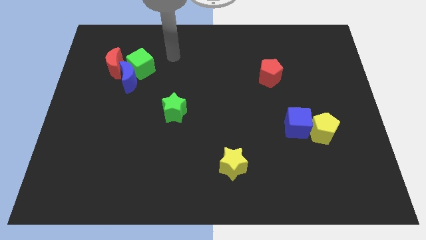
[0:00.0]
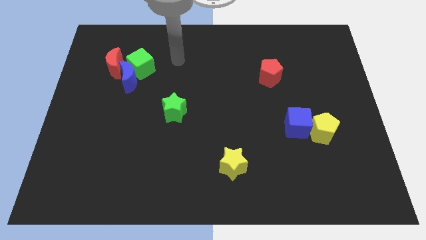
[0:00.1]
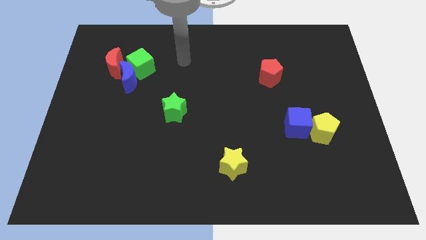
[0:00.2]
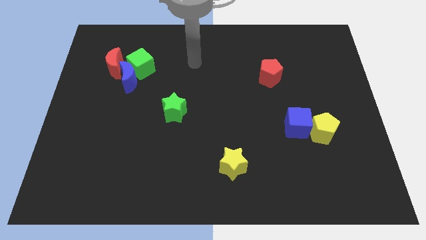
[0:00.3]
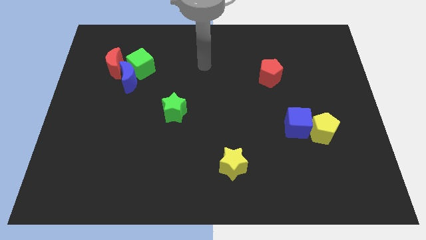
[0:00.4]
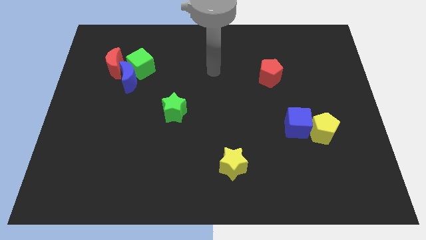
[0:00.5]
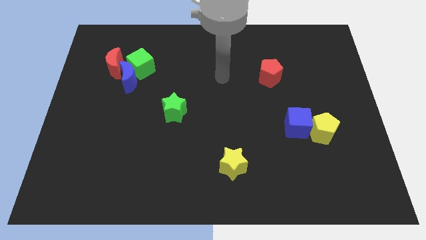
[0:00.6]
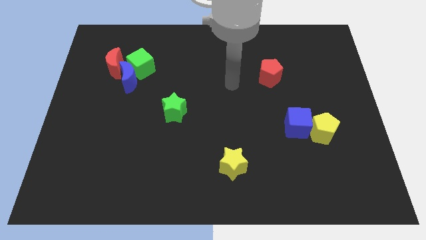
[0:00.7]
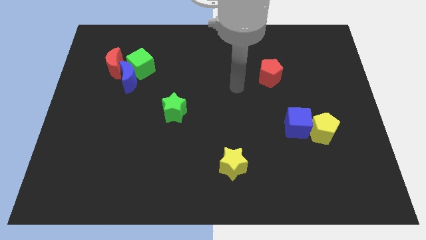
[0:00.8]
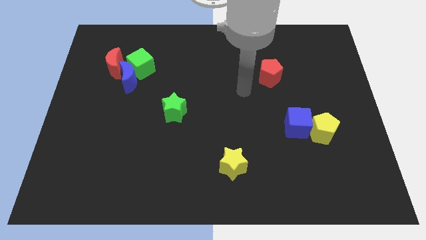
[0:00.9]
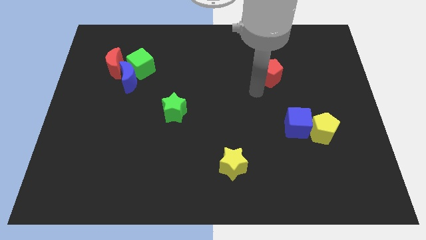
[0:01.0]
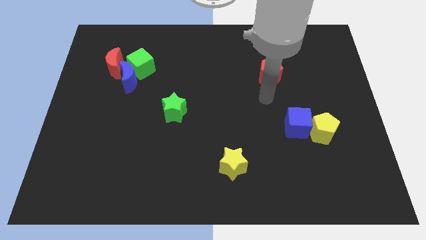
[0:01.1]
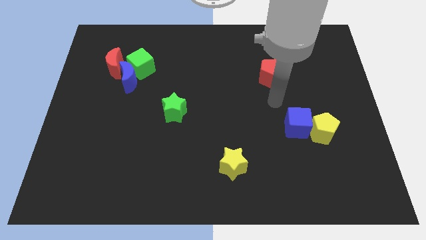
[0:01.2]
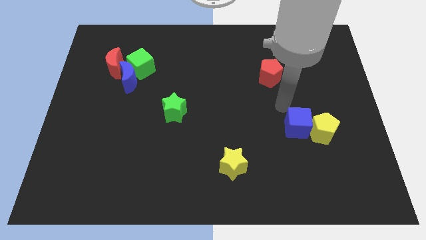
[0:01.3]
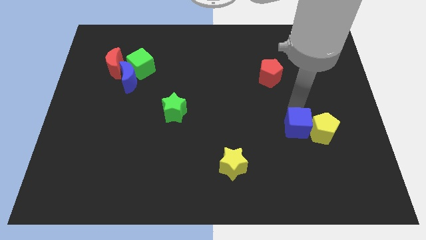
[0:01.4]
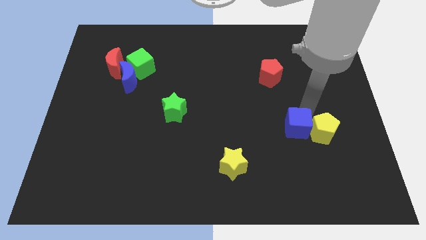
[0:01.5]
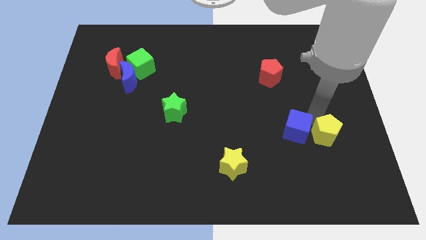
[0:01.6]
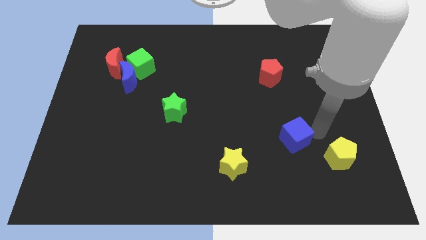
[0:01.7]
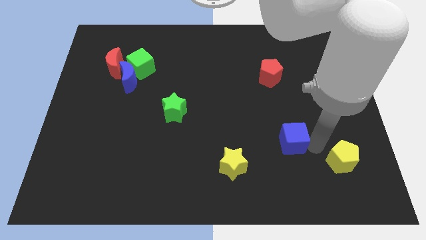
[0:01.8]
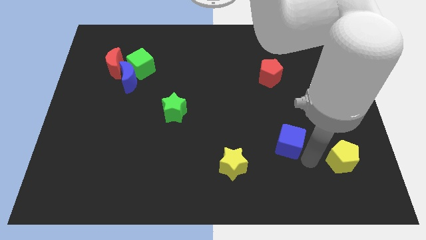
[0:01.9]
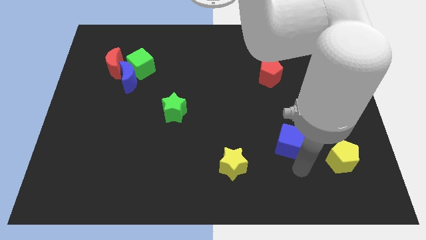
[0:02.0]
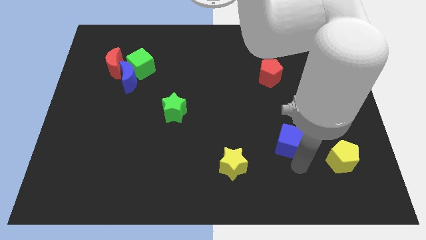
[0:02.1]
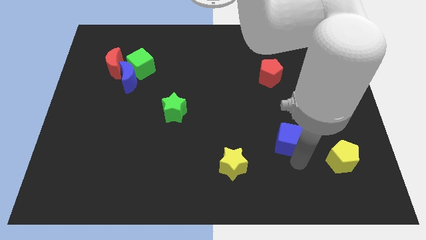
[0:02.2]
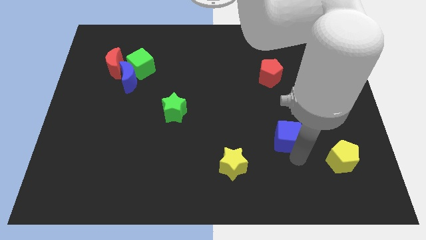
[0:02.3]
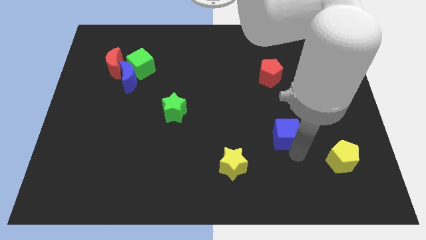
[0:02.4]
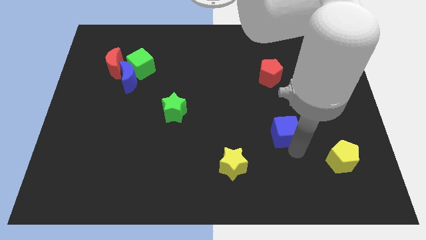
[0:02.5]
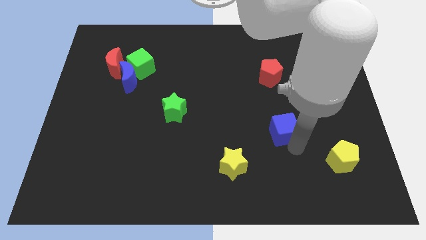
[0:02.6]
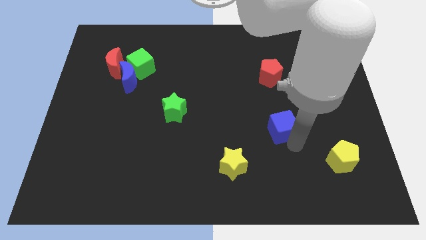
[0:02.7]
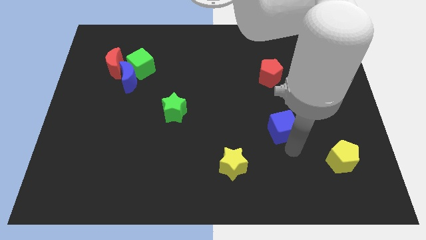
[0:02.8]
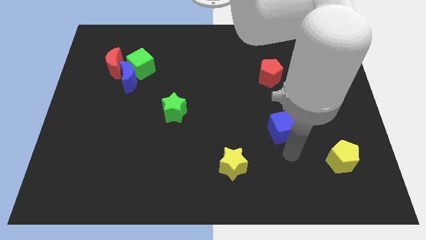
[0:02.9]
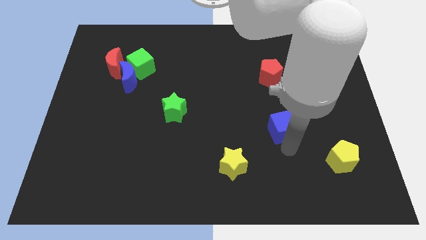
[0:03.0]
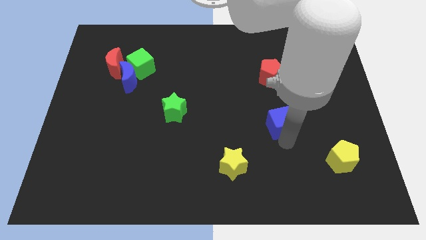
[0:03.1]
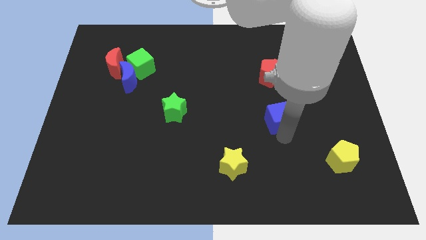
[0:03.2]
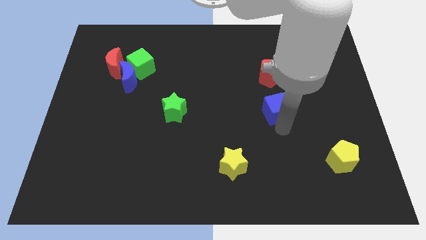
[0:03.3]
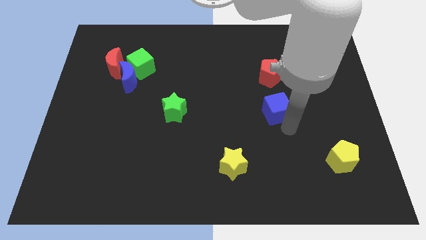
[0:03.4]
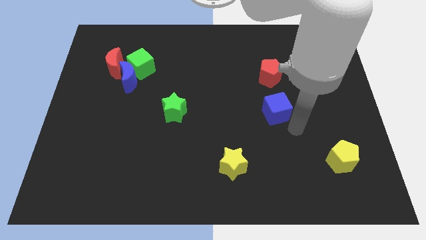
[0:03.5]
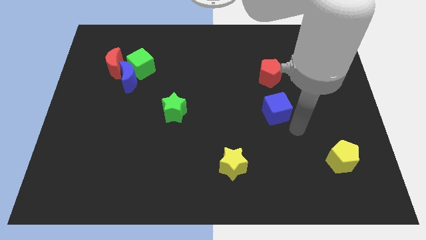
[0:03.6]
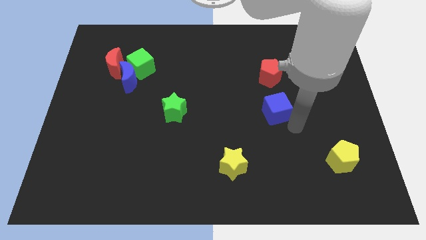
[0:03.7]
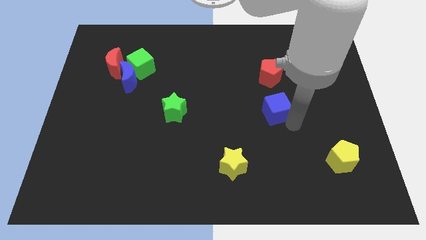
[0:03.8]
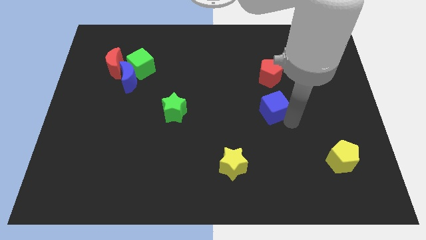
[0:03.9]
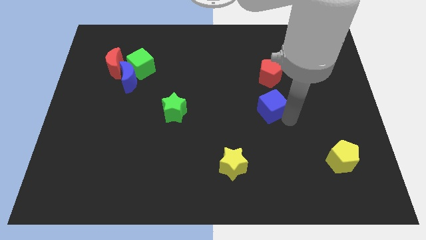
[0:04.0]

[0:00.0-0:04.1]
push the blue cube upwards and left slightly

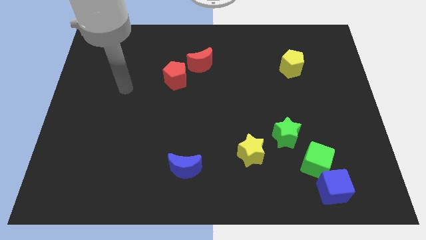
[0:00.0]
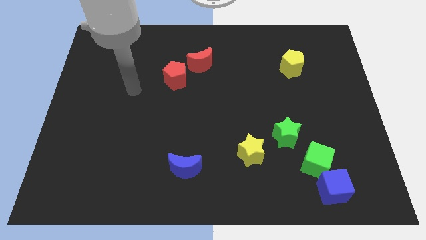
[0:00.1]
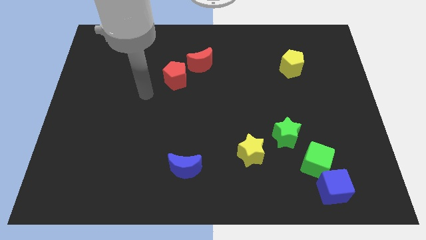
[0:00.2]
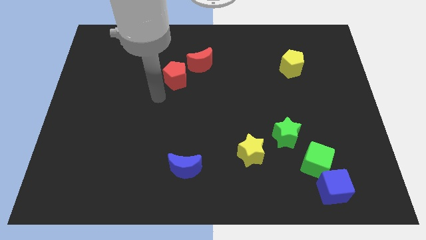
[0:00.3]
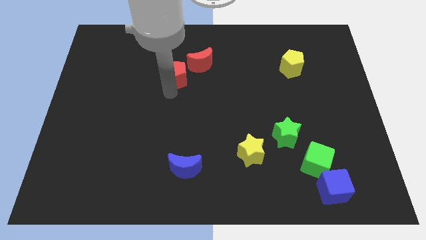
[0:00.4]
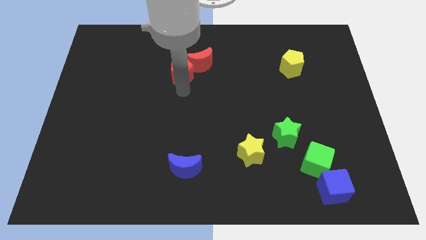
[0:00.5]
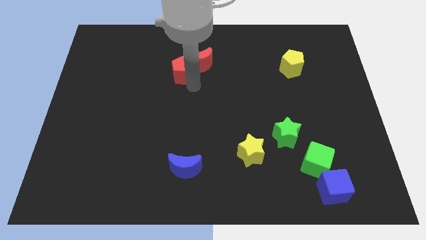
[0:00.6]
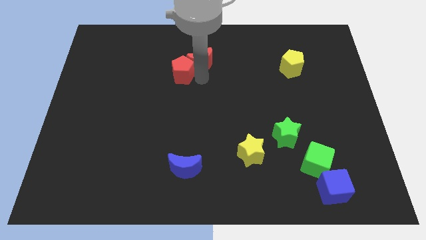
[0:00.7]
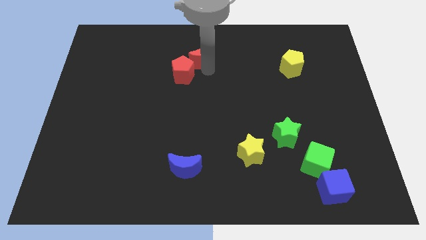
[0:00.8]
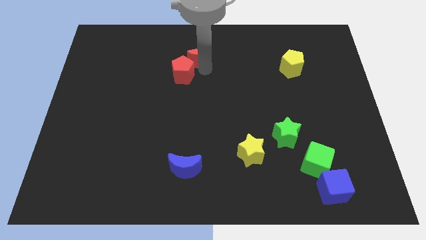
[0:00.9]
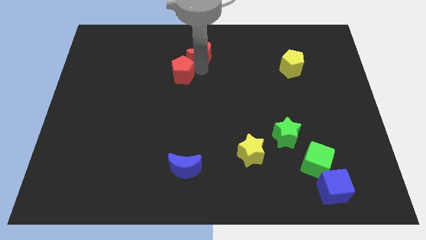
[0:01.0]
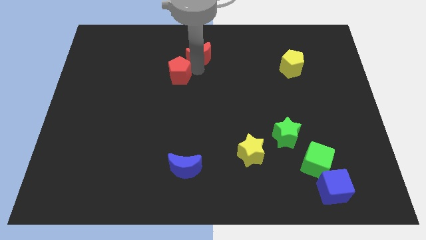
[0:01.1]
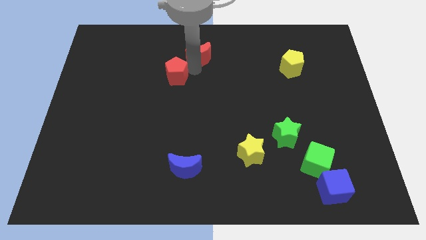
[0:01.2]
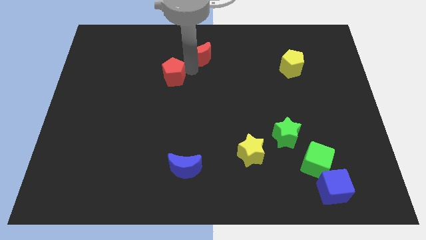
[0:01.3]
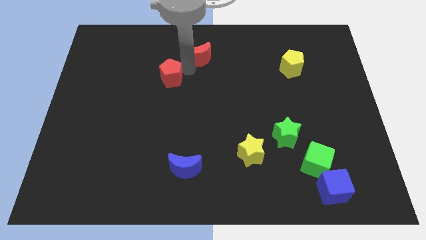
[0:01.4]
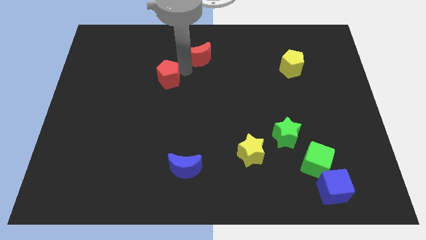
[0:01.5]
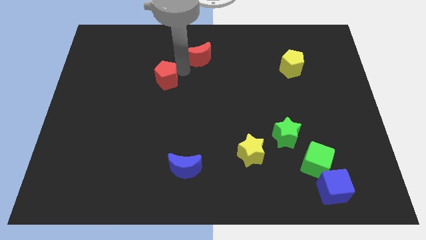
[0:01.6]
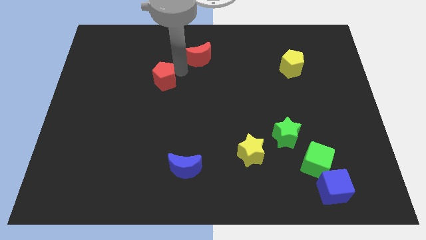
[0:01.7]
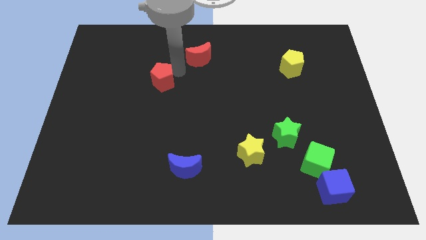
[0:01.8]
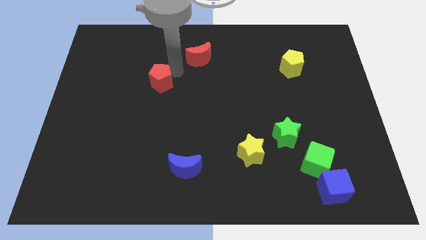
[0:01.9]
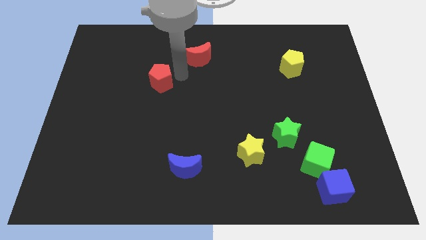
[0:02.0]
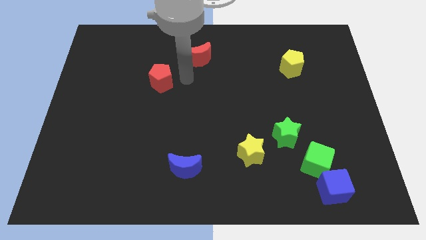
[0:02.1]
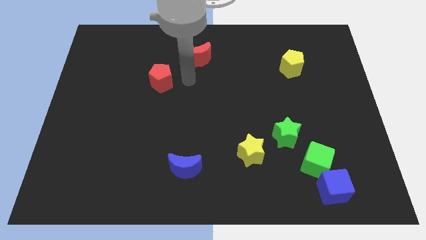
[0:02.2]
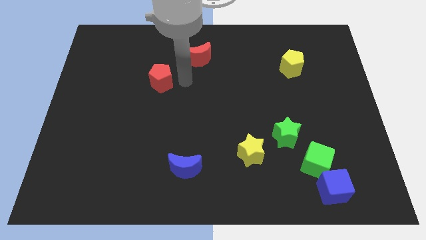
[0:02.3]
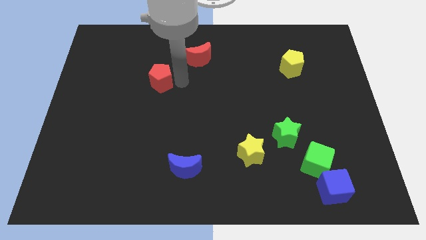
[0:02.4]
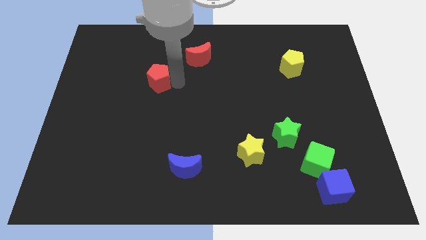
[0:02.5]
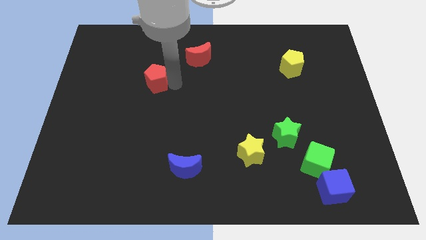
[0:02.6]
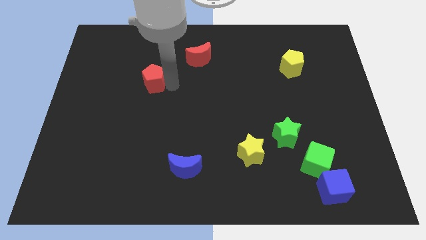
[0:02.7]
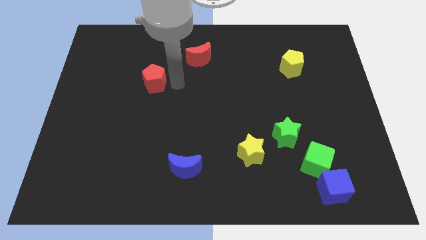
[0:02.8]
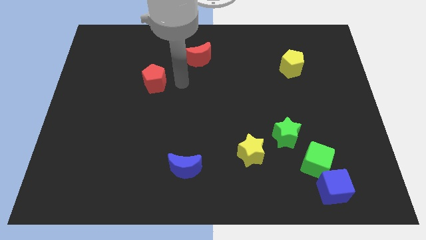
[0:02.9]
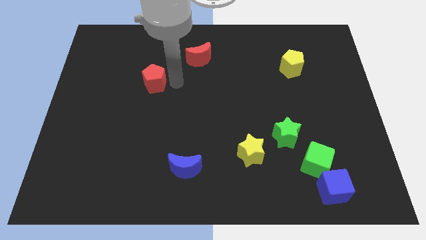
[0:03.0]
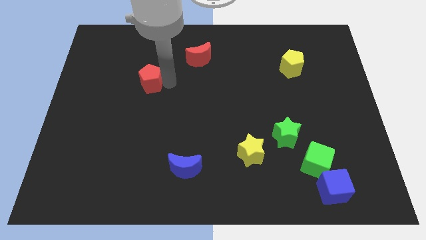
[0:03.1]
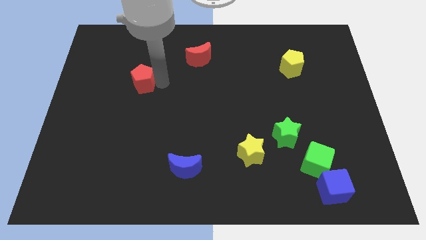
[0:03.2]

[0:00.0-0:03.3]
slightly move the red pentagon left

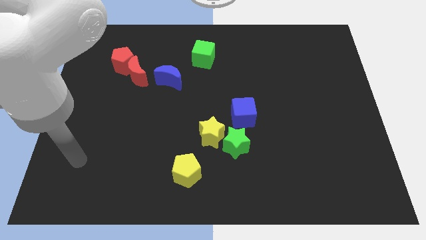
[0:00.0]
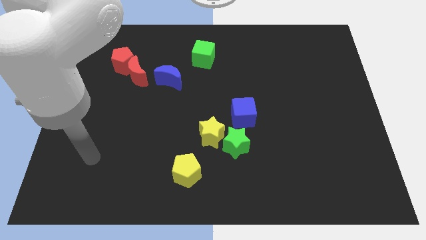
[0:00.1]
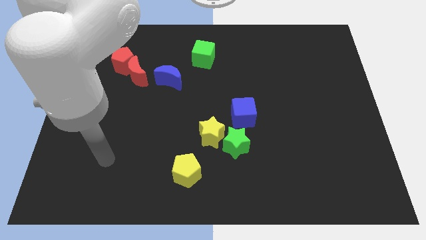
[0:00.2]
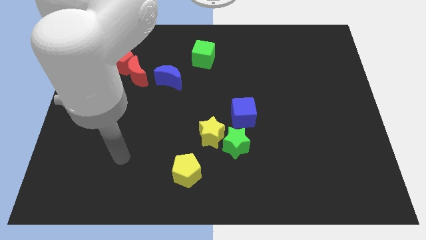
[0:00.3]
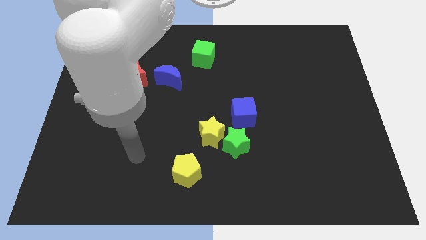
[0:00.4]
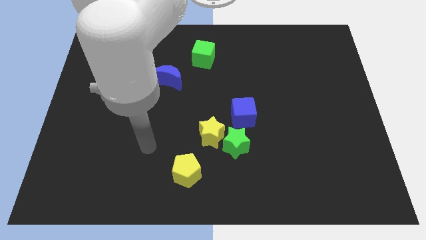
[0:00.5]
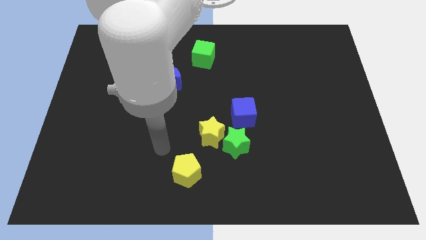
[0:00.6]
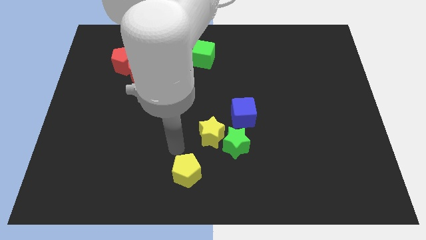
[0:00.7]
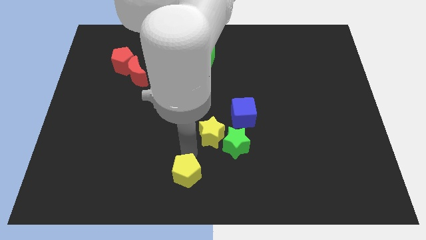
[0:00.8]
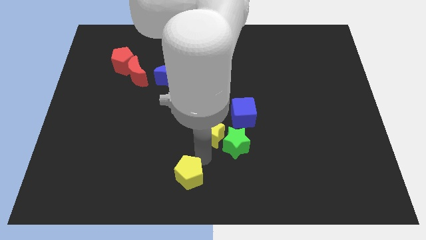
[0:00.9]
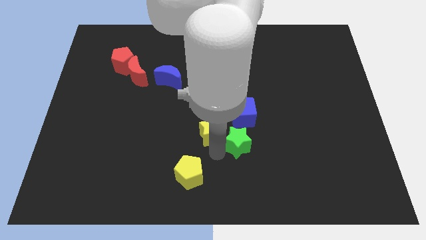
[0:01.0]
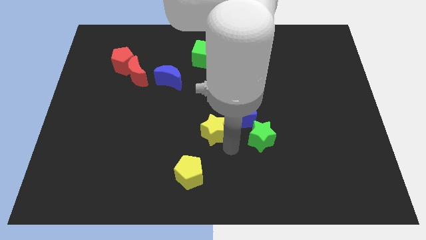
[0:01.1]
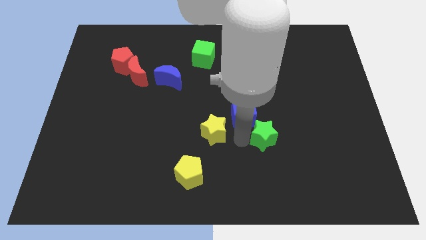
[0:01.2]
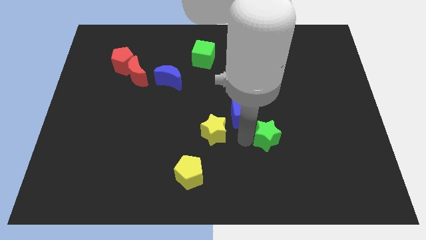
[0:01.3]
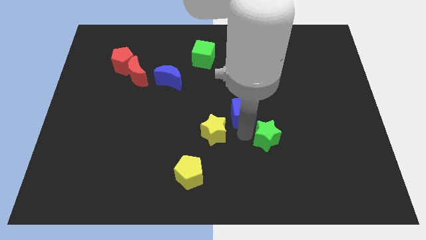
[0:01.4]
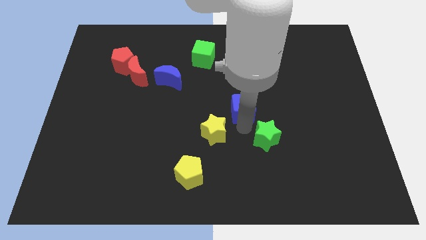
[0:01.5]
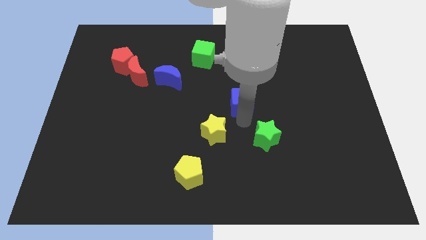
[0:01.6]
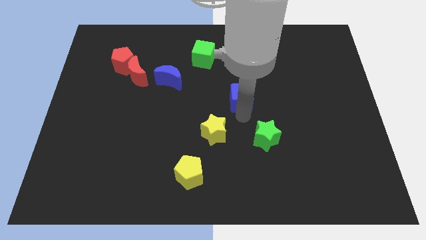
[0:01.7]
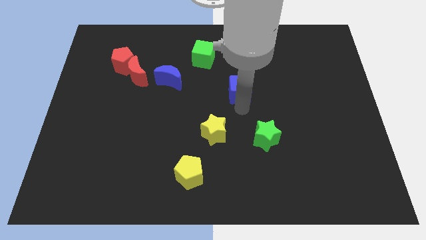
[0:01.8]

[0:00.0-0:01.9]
slide the blue cube up a bit
